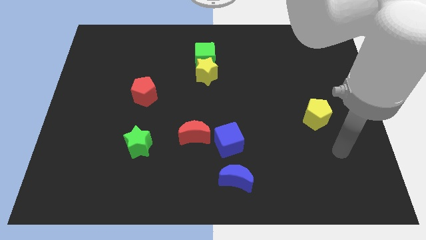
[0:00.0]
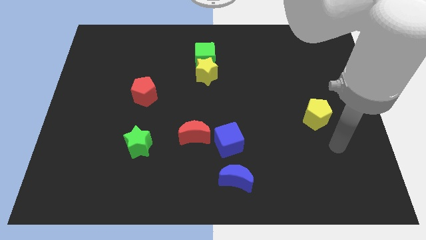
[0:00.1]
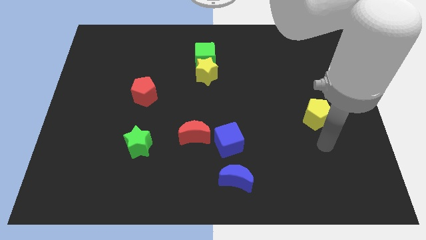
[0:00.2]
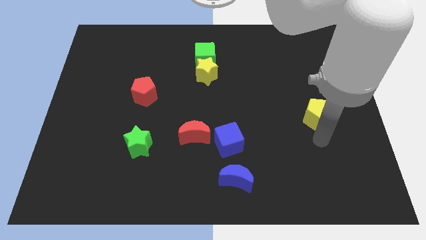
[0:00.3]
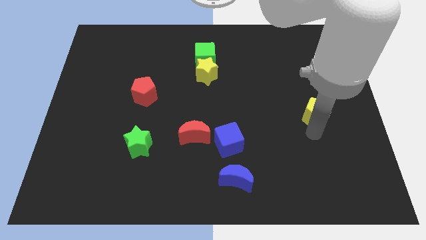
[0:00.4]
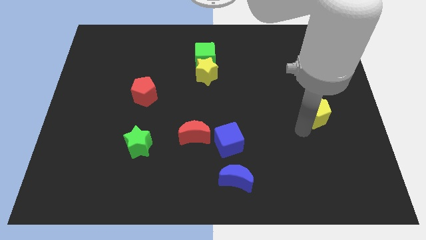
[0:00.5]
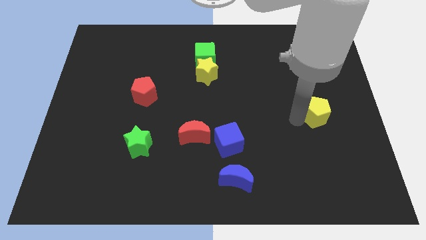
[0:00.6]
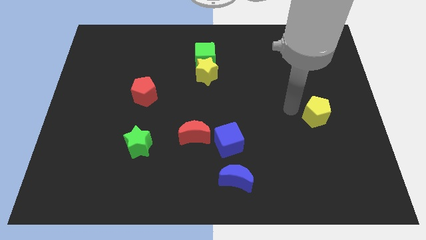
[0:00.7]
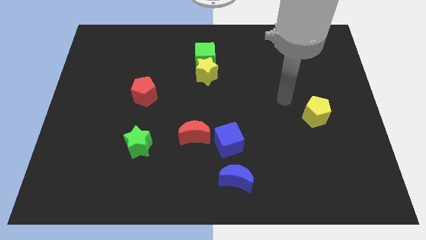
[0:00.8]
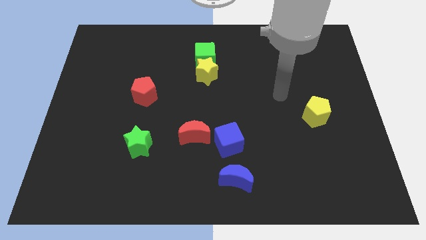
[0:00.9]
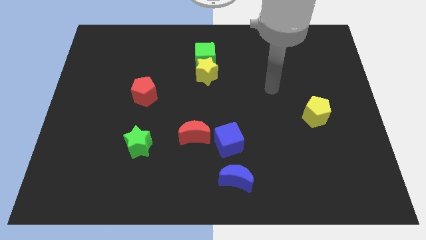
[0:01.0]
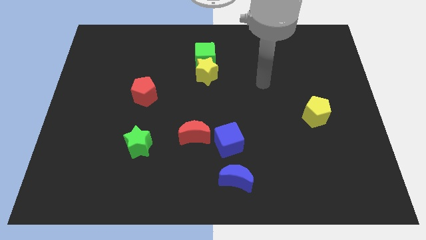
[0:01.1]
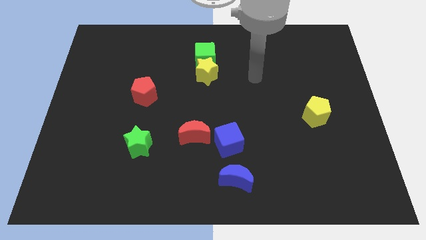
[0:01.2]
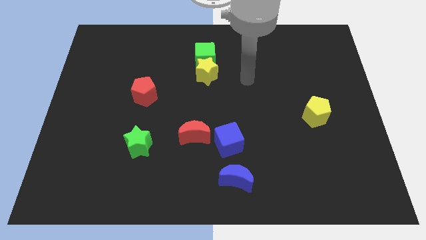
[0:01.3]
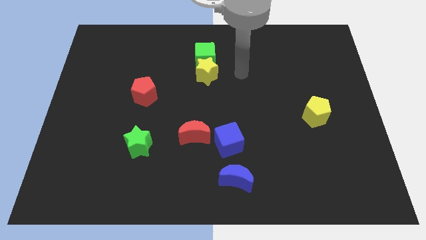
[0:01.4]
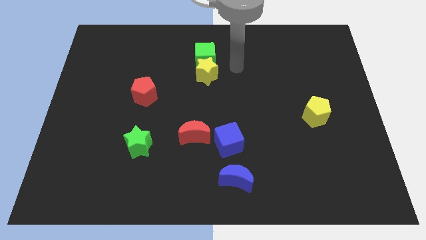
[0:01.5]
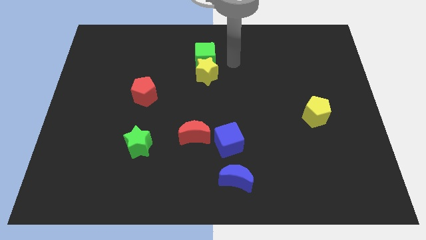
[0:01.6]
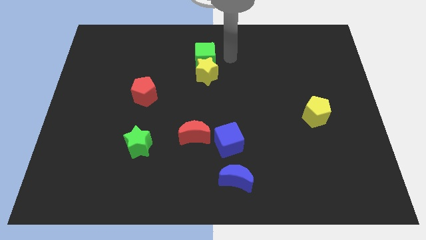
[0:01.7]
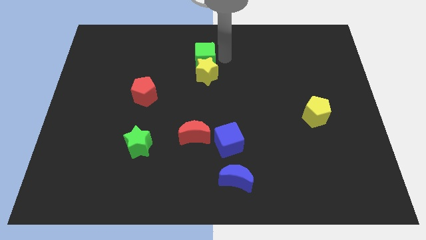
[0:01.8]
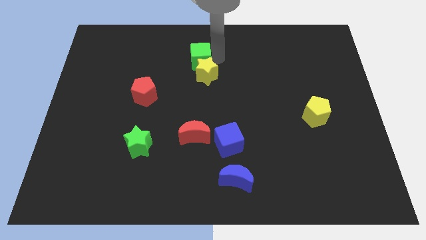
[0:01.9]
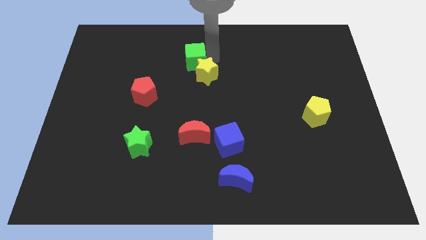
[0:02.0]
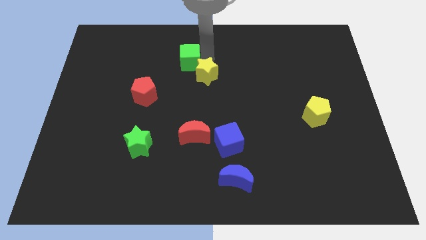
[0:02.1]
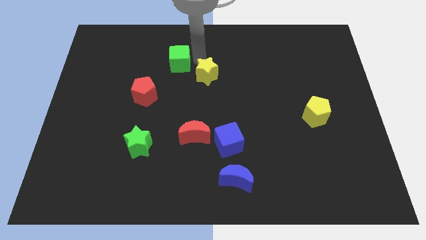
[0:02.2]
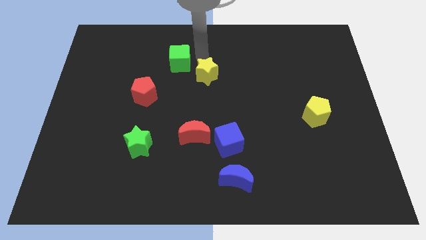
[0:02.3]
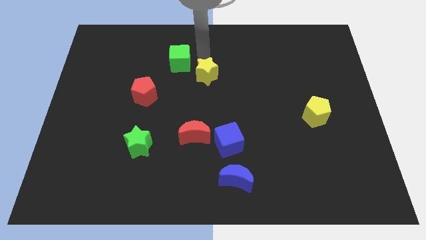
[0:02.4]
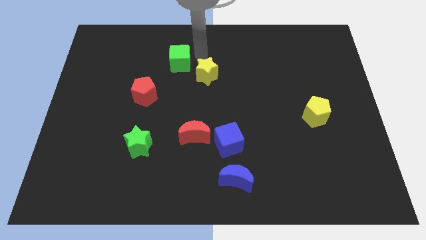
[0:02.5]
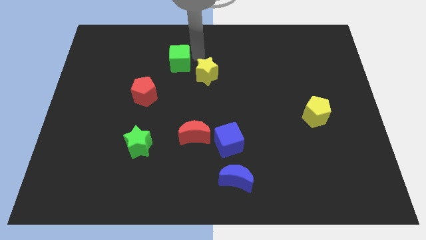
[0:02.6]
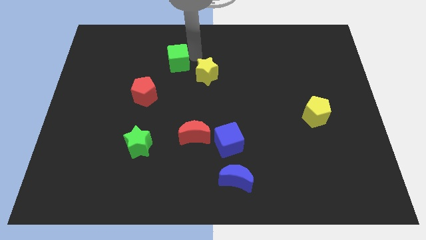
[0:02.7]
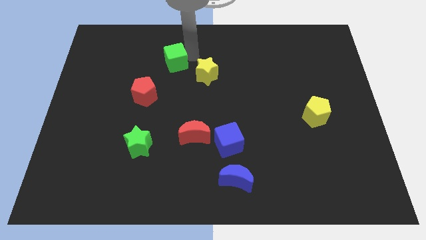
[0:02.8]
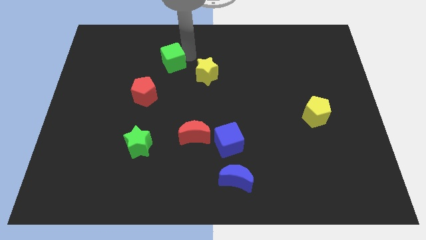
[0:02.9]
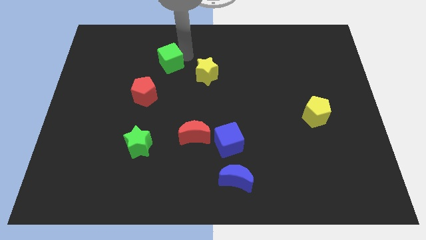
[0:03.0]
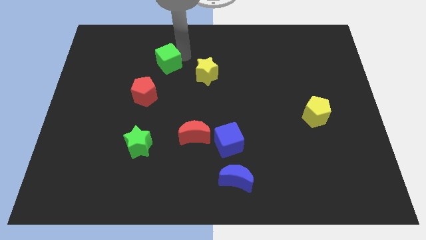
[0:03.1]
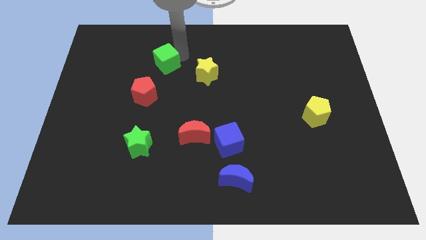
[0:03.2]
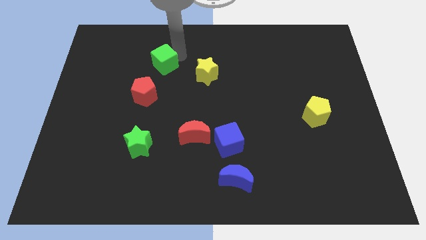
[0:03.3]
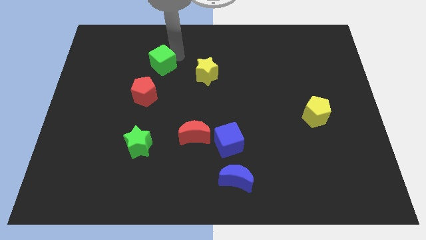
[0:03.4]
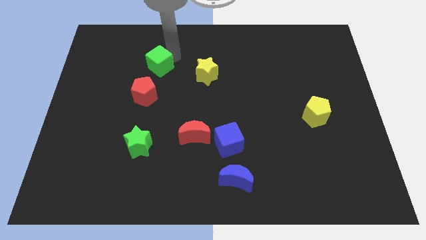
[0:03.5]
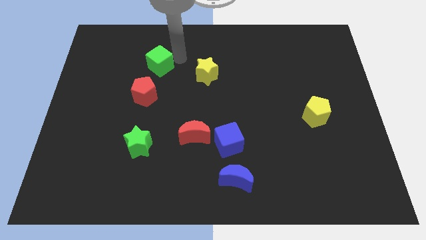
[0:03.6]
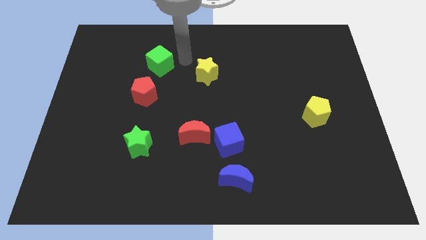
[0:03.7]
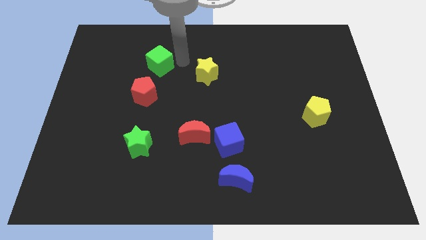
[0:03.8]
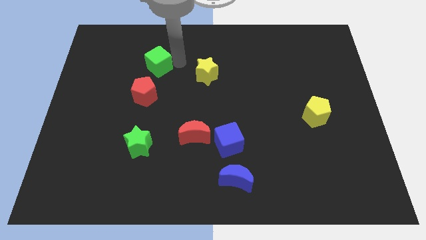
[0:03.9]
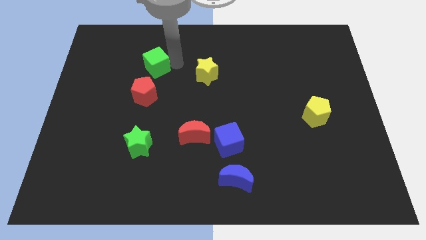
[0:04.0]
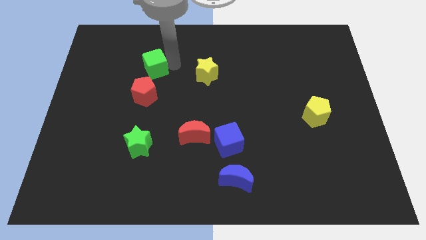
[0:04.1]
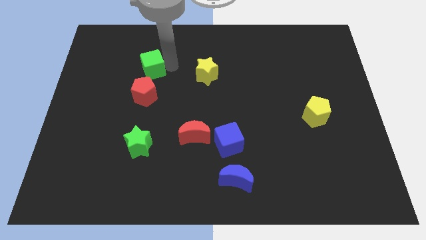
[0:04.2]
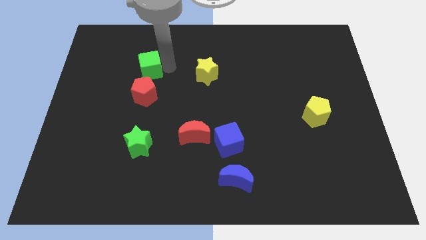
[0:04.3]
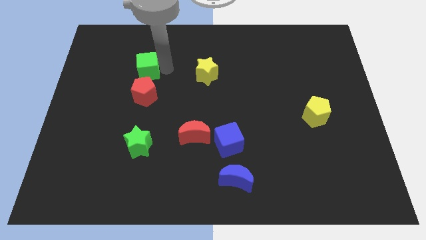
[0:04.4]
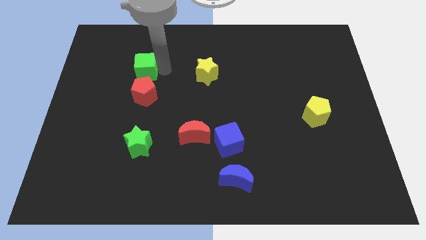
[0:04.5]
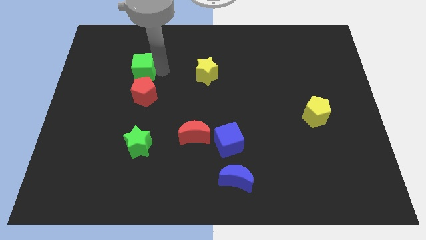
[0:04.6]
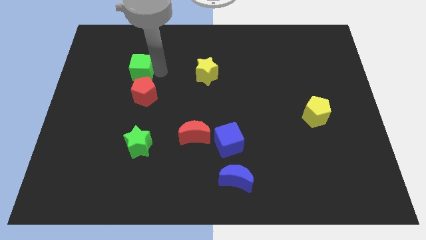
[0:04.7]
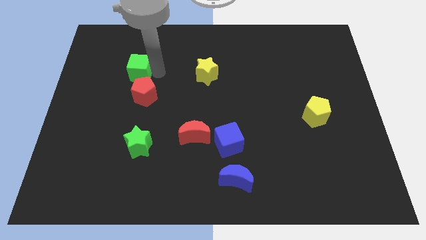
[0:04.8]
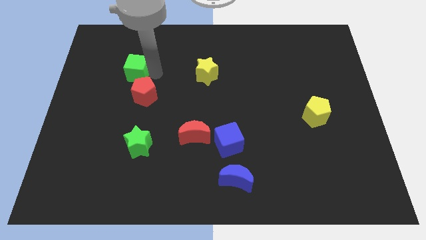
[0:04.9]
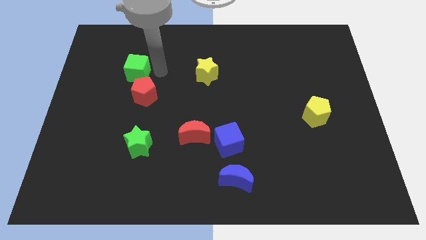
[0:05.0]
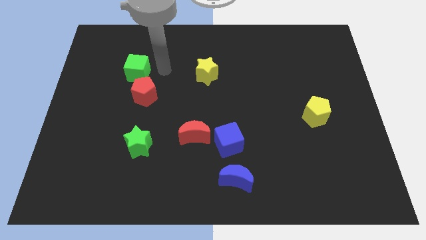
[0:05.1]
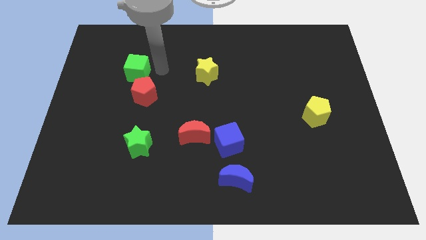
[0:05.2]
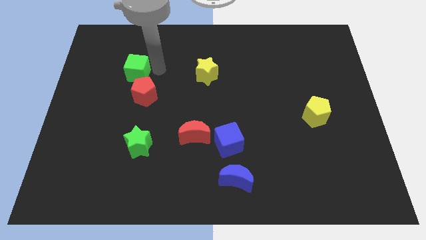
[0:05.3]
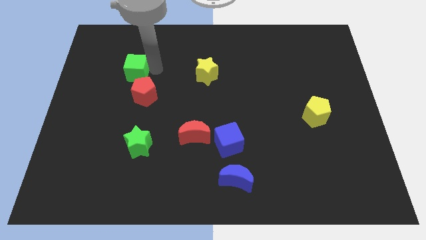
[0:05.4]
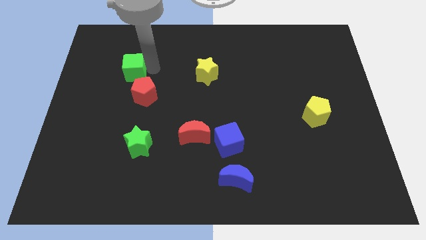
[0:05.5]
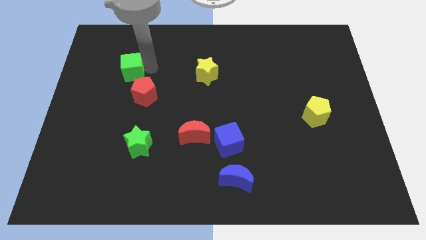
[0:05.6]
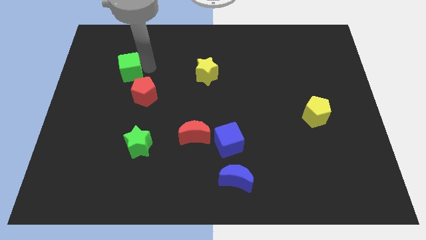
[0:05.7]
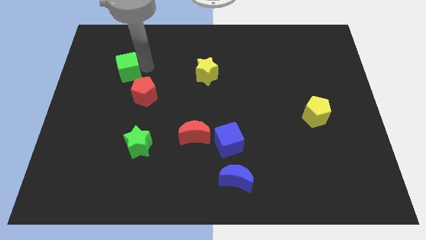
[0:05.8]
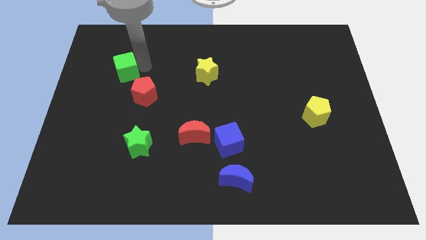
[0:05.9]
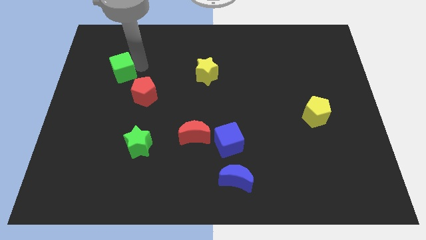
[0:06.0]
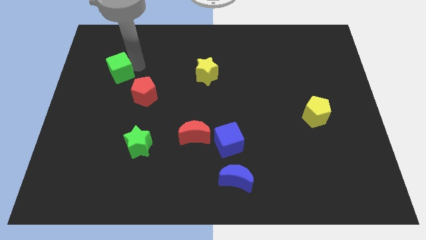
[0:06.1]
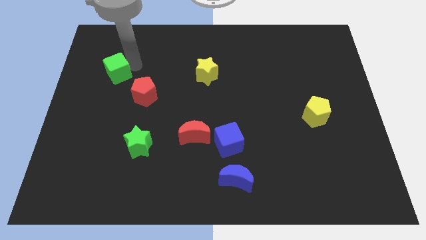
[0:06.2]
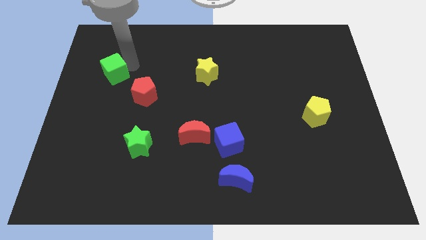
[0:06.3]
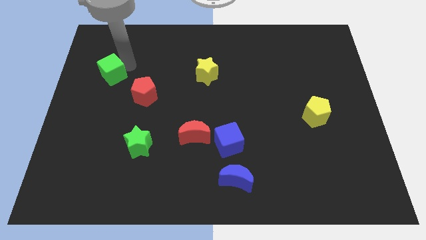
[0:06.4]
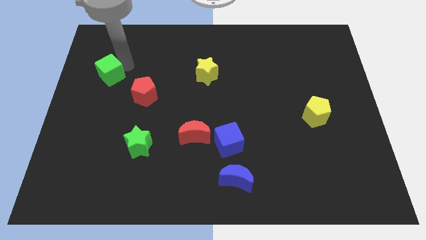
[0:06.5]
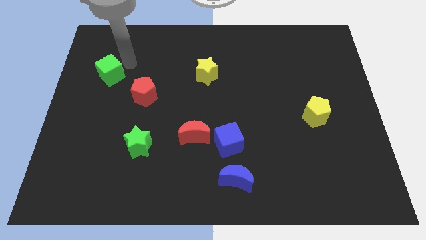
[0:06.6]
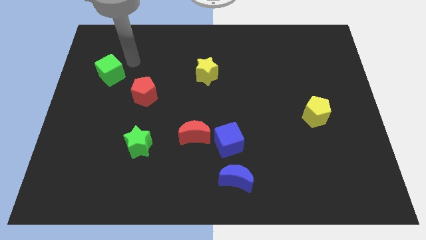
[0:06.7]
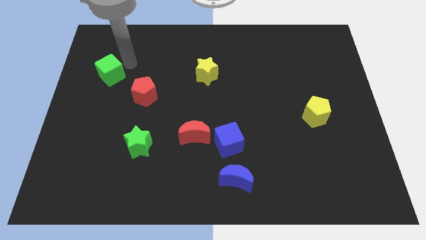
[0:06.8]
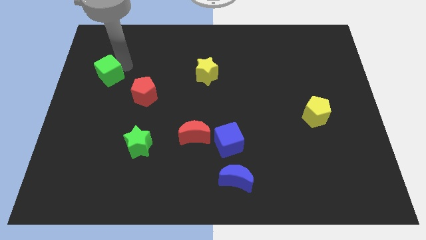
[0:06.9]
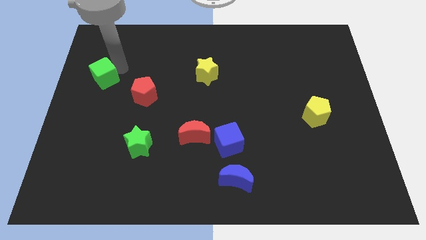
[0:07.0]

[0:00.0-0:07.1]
put the green cube to the center left

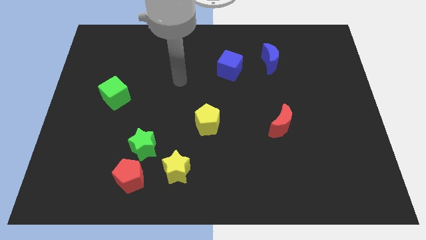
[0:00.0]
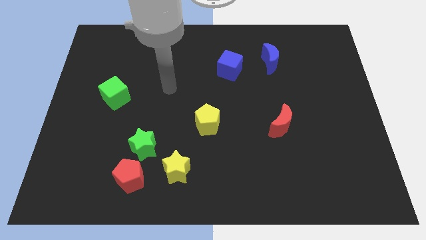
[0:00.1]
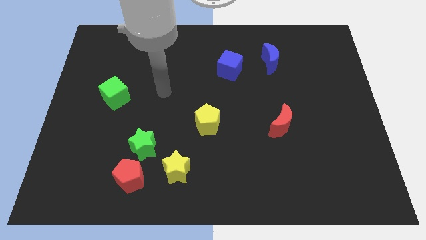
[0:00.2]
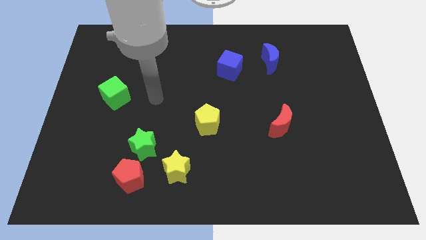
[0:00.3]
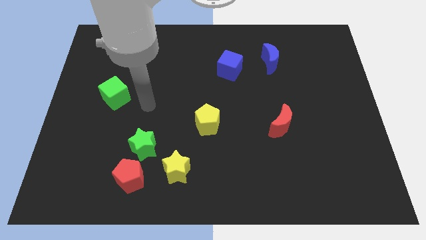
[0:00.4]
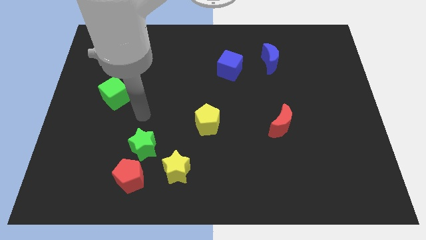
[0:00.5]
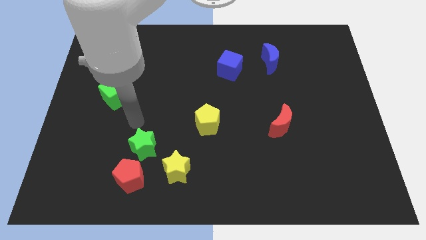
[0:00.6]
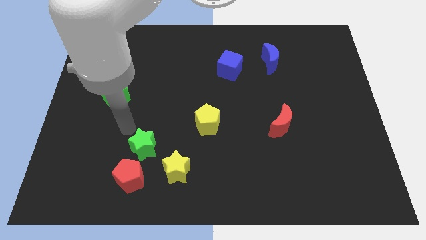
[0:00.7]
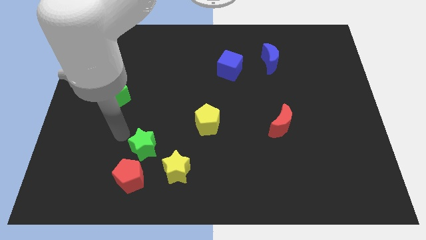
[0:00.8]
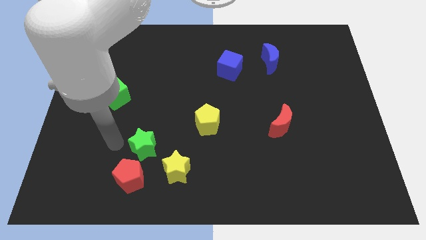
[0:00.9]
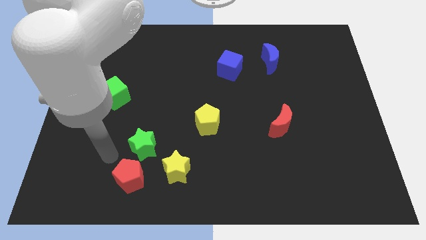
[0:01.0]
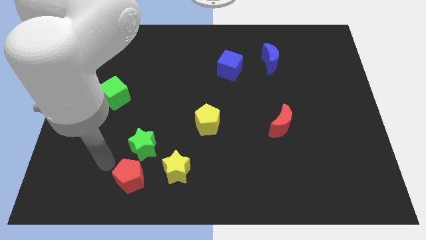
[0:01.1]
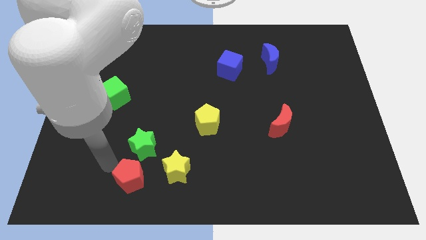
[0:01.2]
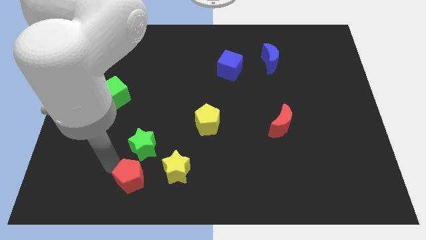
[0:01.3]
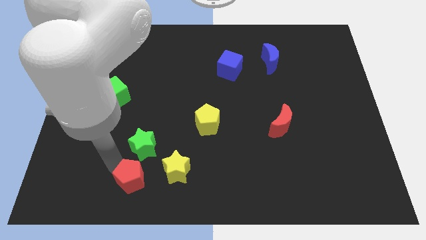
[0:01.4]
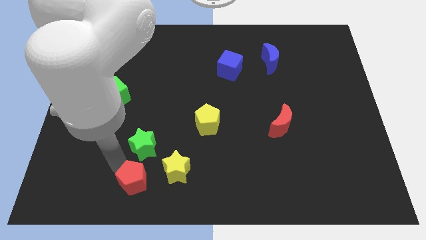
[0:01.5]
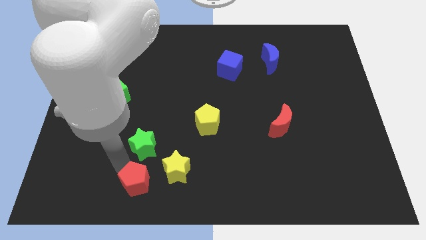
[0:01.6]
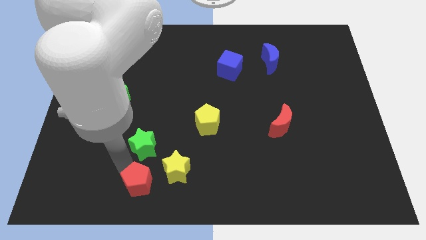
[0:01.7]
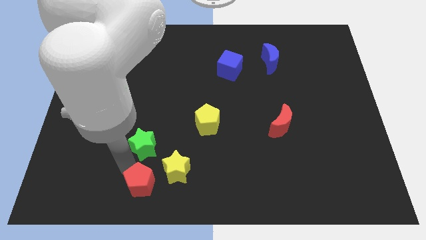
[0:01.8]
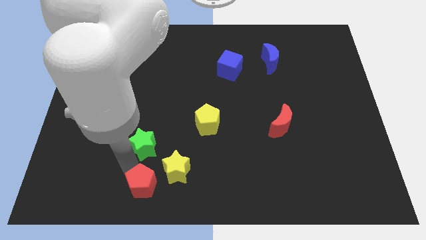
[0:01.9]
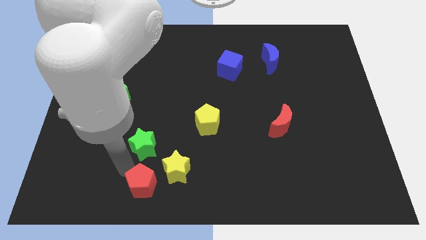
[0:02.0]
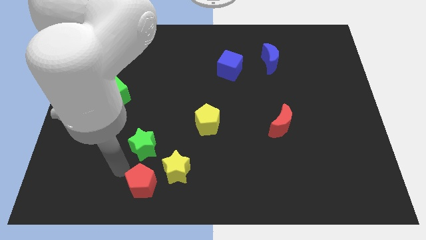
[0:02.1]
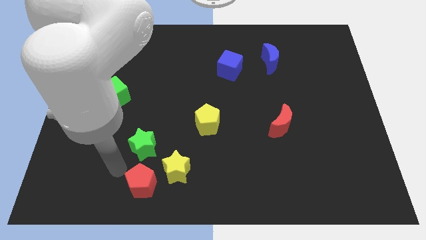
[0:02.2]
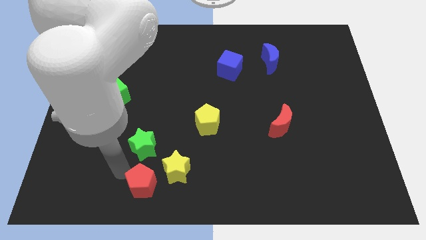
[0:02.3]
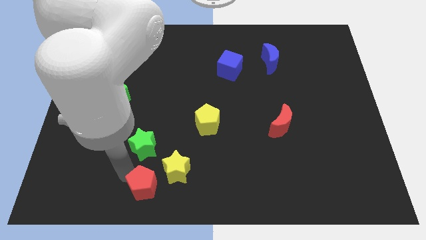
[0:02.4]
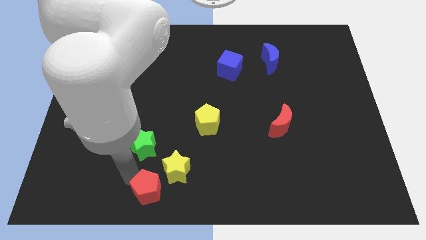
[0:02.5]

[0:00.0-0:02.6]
put the red pentagon to the bottom
